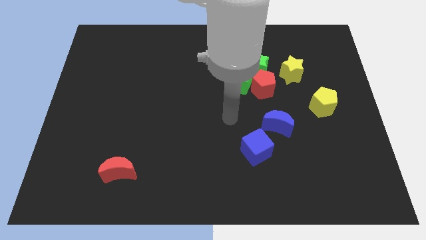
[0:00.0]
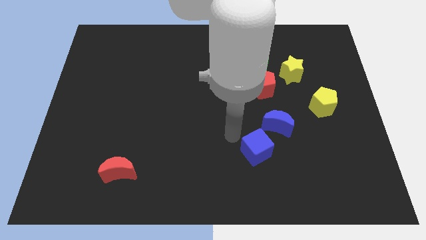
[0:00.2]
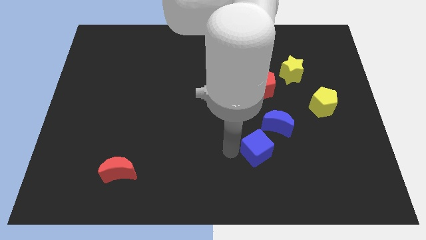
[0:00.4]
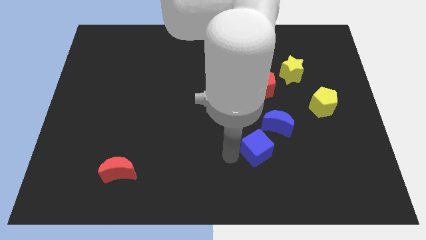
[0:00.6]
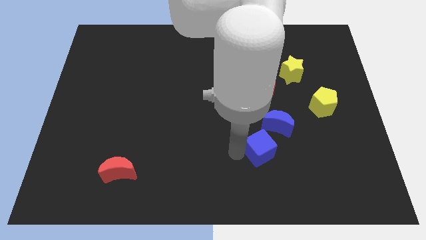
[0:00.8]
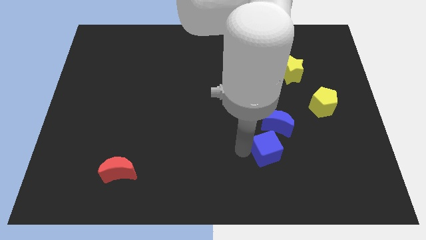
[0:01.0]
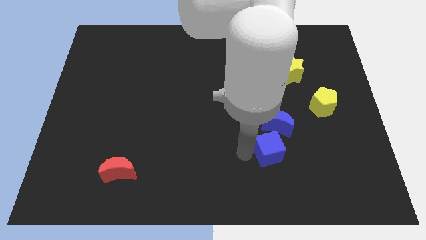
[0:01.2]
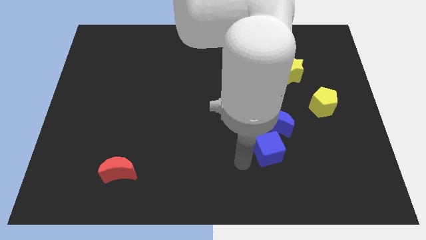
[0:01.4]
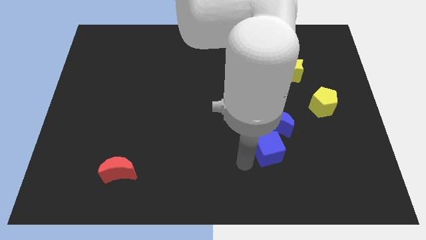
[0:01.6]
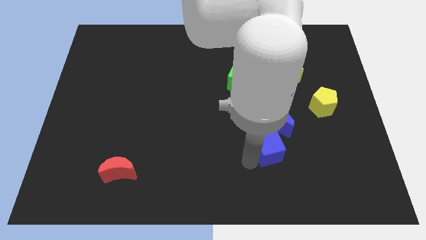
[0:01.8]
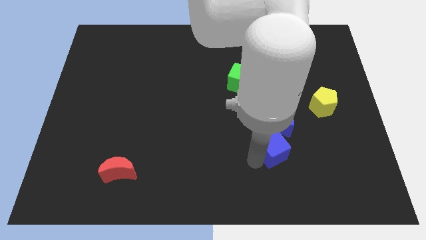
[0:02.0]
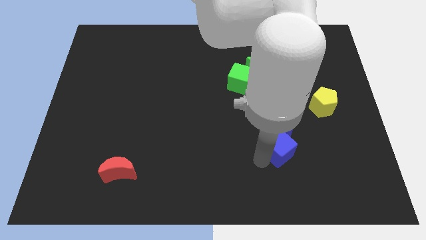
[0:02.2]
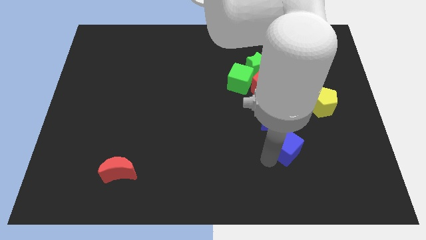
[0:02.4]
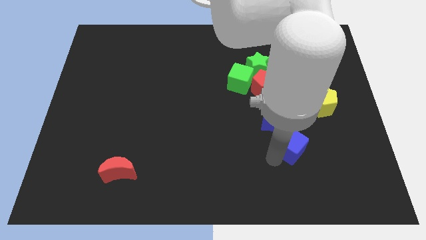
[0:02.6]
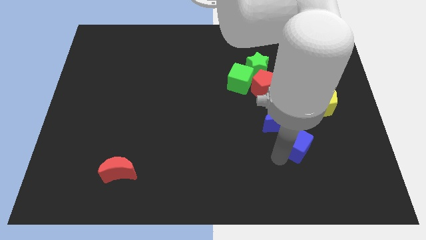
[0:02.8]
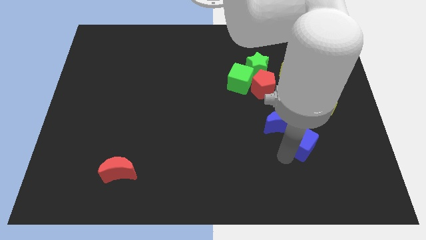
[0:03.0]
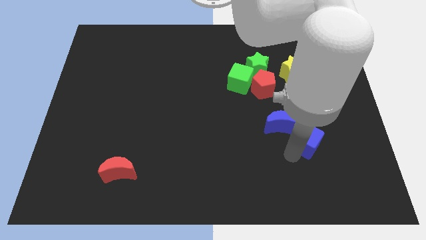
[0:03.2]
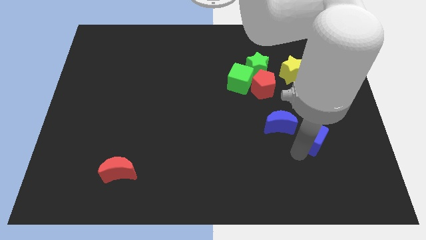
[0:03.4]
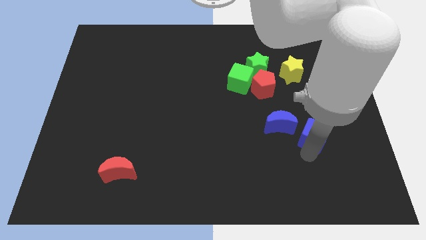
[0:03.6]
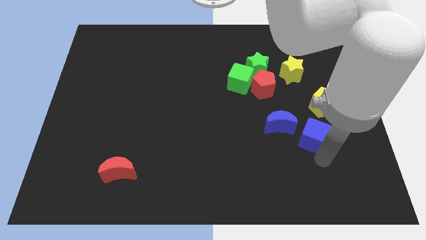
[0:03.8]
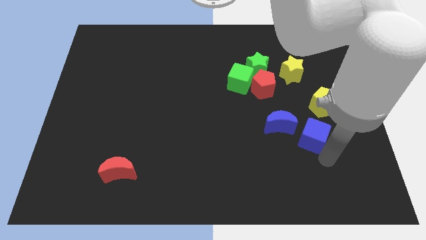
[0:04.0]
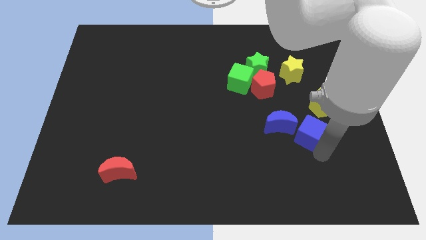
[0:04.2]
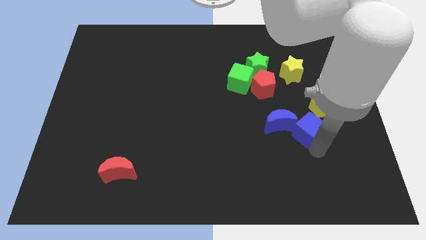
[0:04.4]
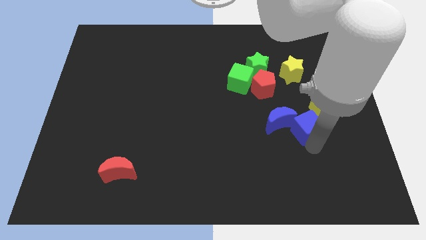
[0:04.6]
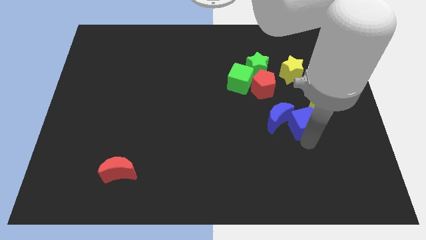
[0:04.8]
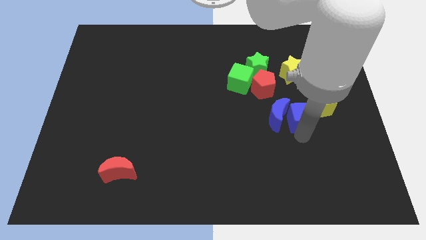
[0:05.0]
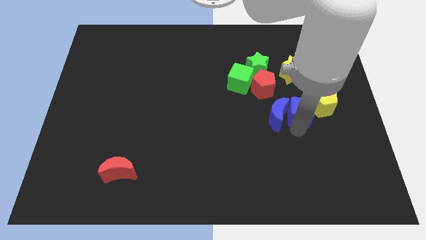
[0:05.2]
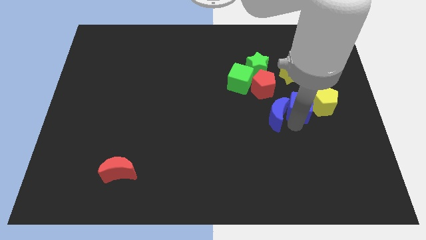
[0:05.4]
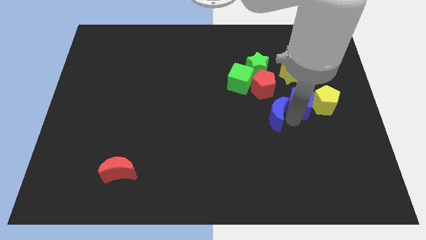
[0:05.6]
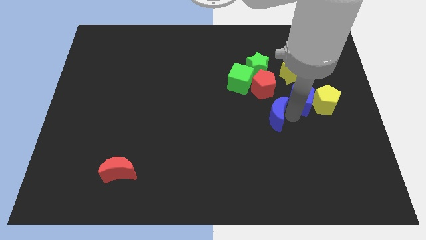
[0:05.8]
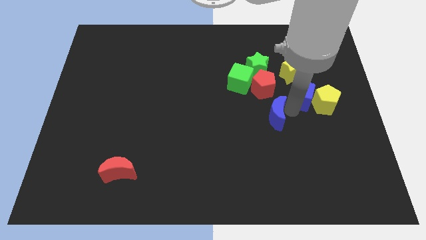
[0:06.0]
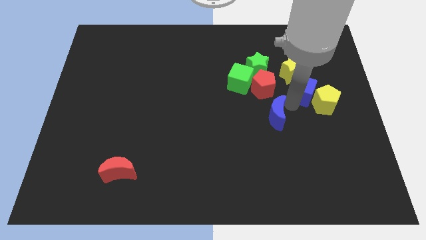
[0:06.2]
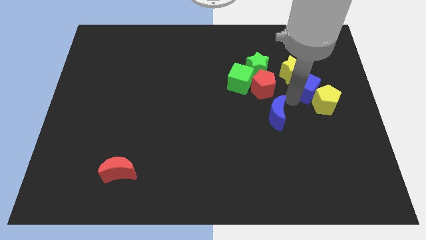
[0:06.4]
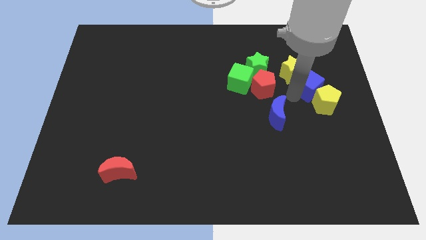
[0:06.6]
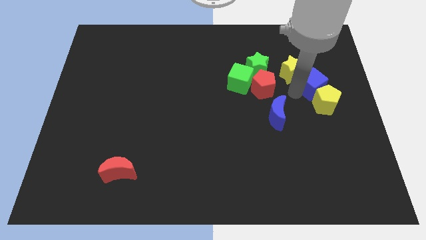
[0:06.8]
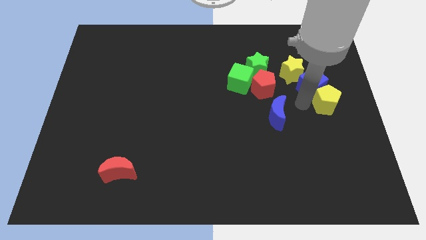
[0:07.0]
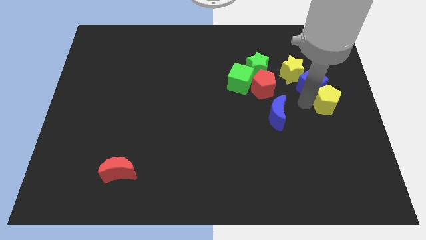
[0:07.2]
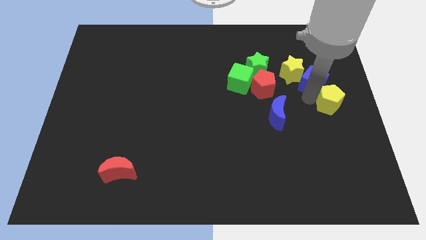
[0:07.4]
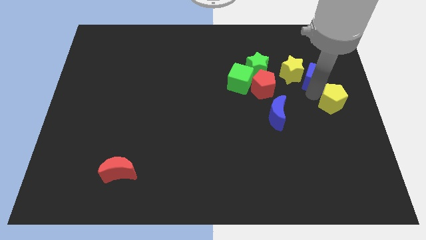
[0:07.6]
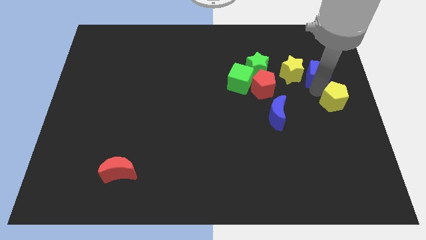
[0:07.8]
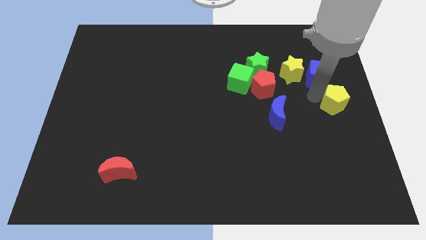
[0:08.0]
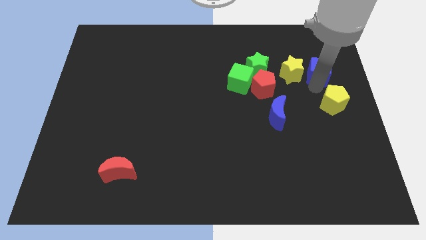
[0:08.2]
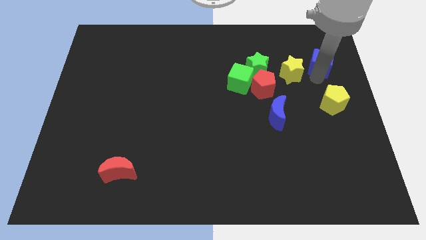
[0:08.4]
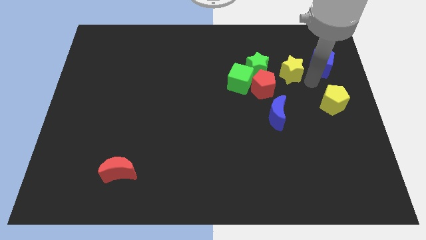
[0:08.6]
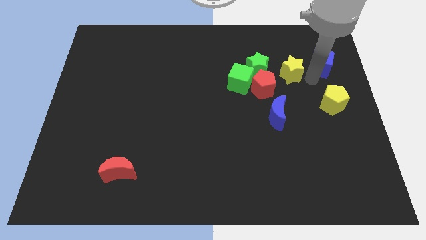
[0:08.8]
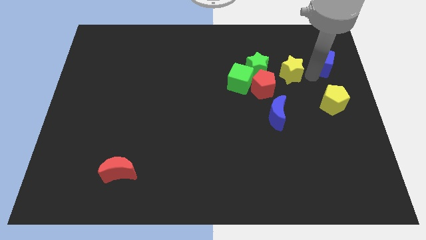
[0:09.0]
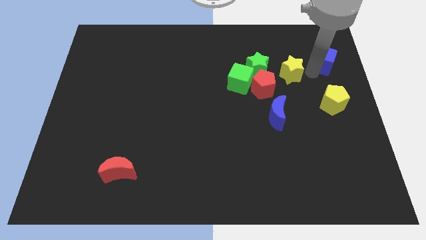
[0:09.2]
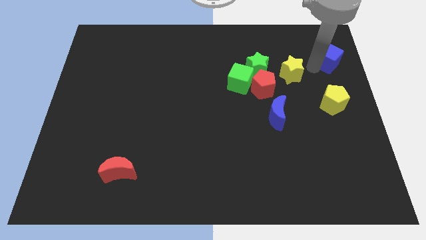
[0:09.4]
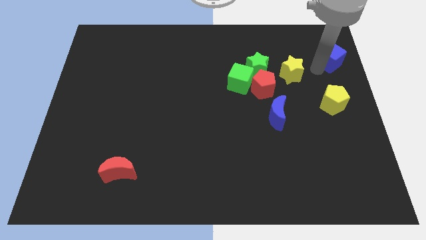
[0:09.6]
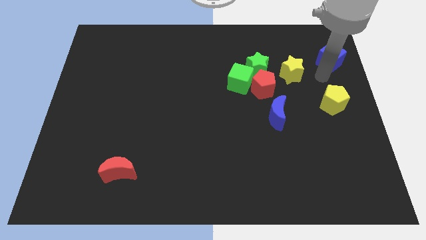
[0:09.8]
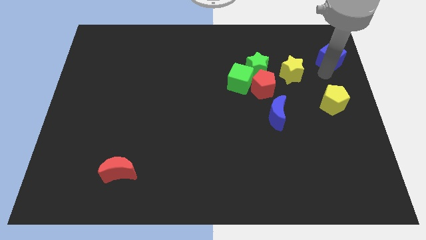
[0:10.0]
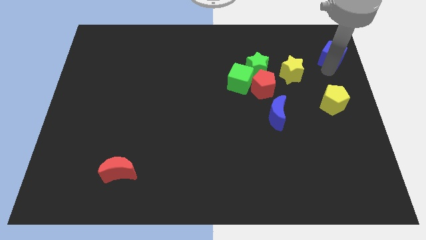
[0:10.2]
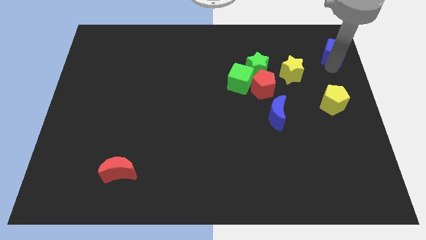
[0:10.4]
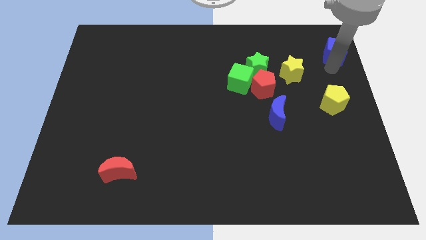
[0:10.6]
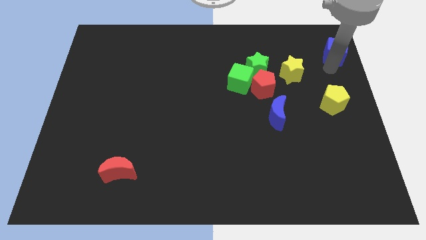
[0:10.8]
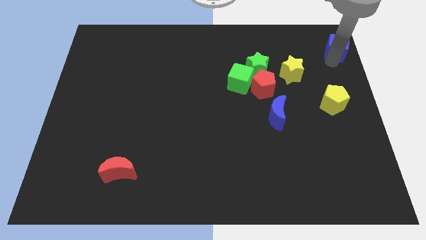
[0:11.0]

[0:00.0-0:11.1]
put the blue cube to the top right of the board

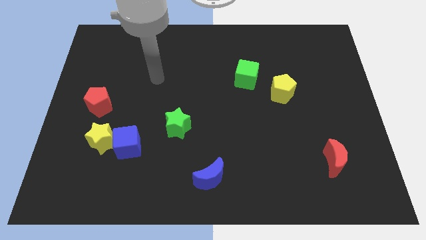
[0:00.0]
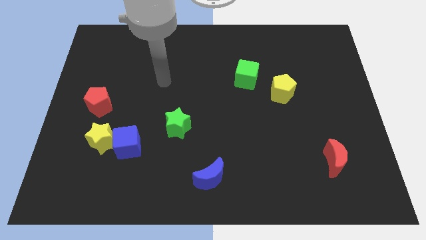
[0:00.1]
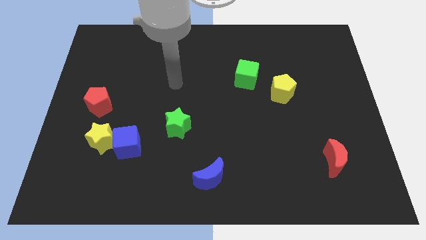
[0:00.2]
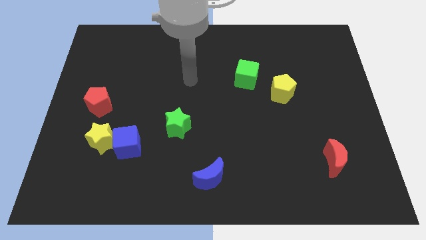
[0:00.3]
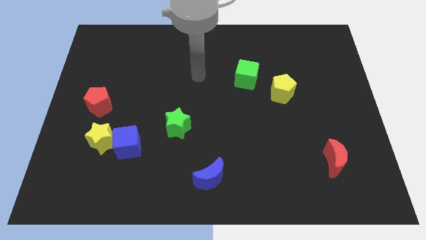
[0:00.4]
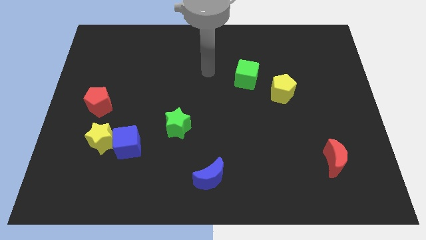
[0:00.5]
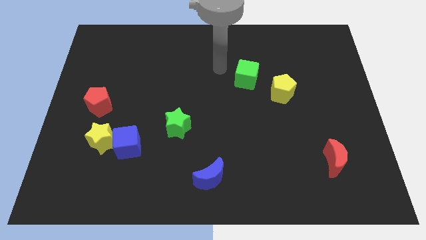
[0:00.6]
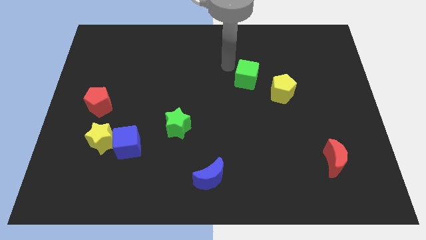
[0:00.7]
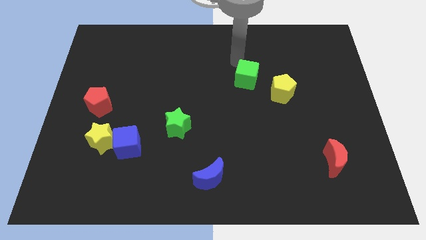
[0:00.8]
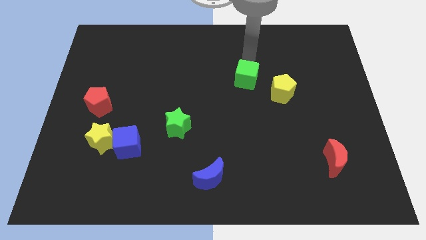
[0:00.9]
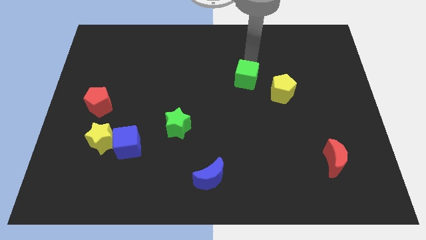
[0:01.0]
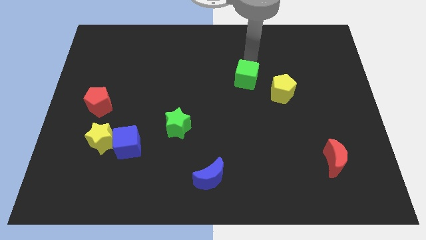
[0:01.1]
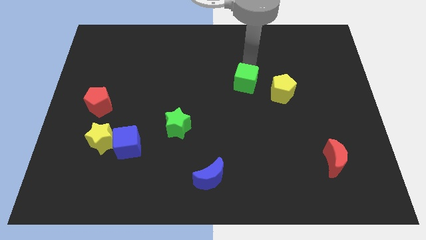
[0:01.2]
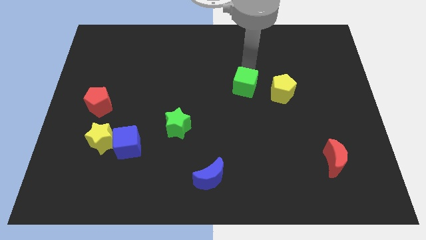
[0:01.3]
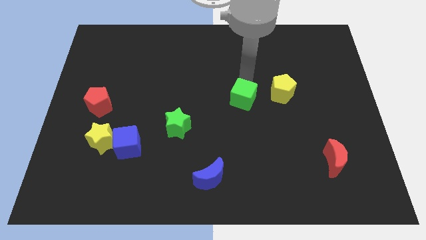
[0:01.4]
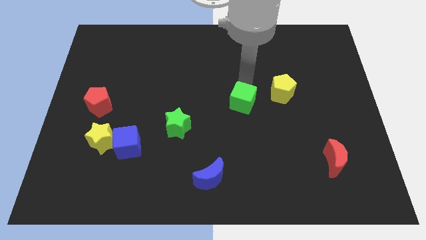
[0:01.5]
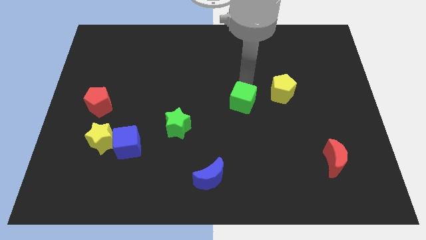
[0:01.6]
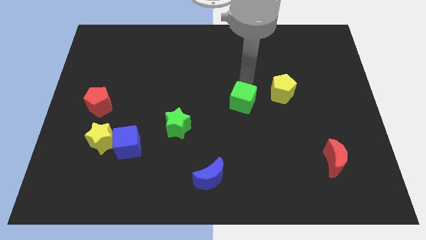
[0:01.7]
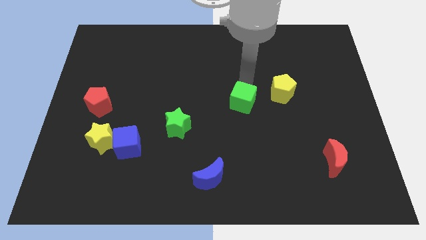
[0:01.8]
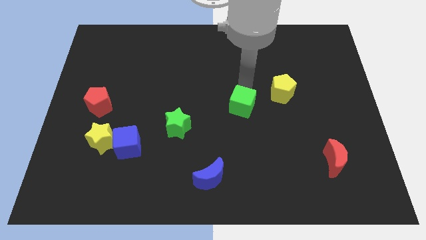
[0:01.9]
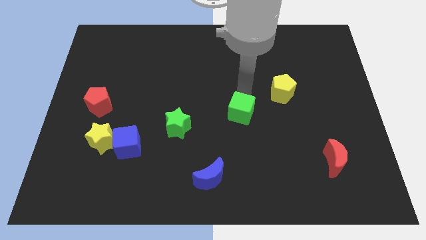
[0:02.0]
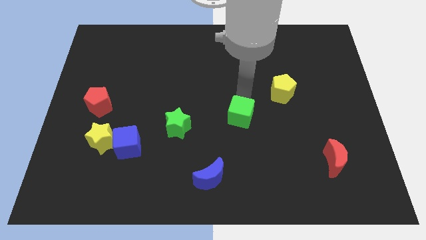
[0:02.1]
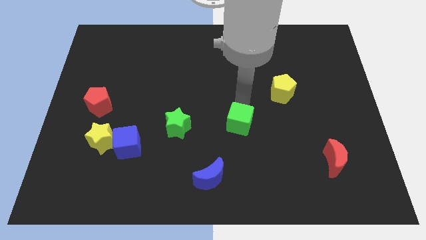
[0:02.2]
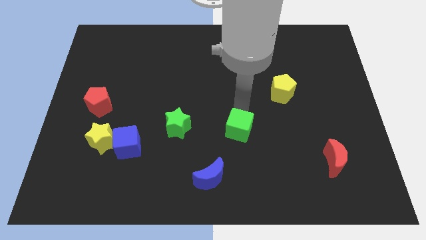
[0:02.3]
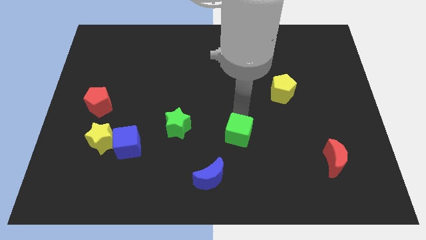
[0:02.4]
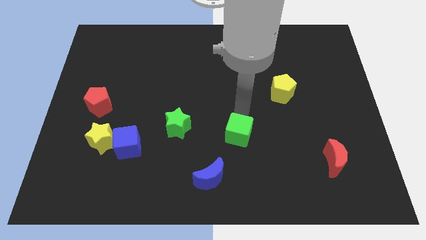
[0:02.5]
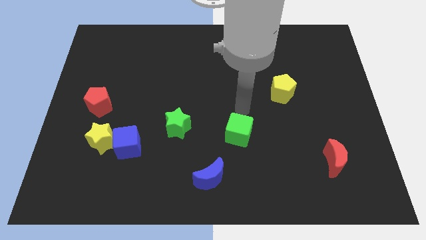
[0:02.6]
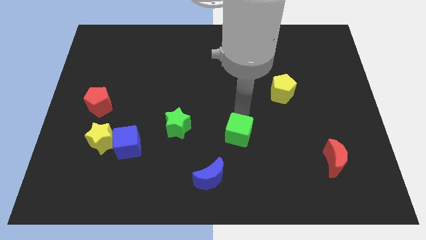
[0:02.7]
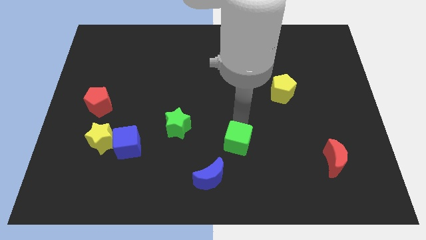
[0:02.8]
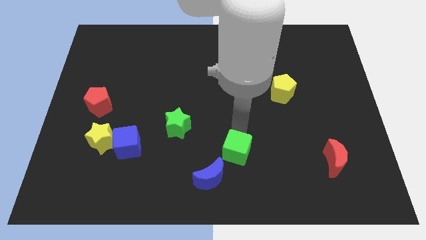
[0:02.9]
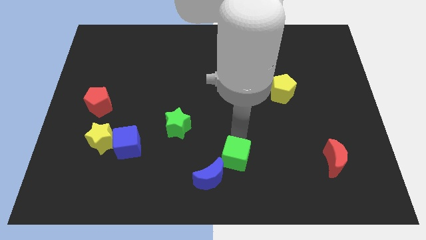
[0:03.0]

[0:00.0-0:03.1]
push the green cube to the bottom
